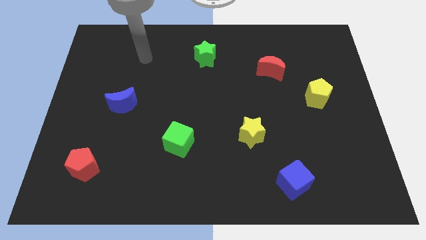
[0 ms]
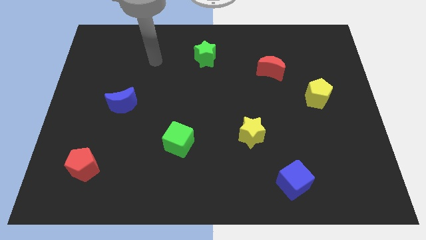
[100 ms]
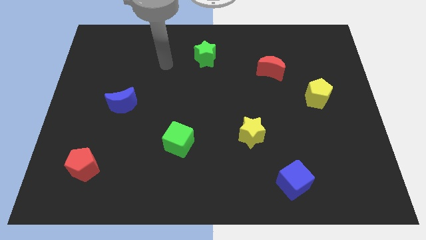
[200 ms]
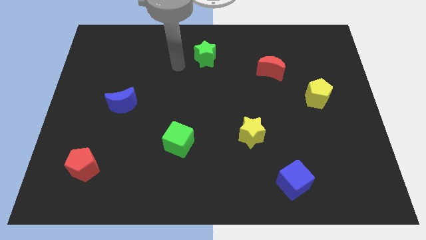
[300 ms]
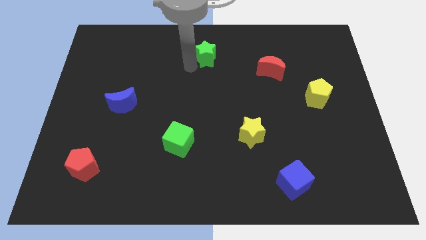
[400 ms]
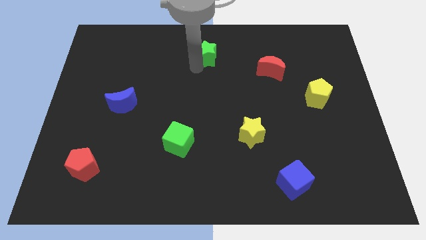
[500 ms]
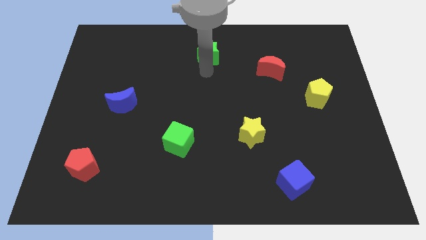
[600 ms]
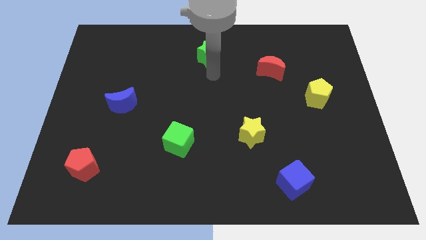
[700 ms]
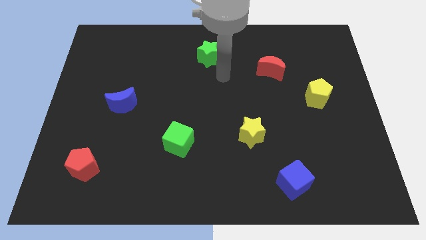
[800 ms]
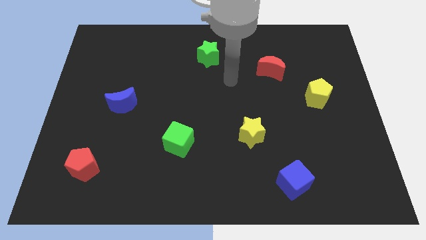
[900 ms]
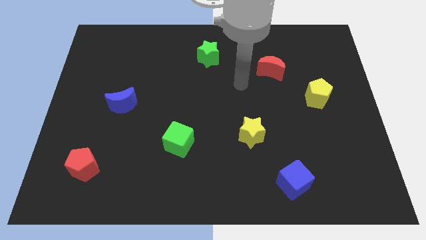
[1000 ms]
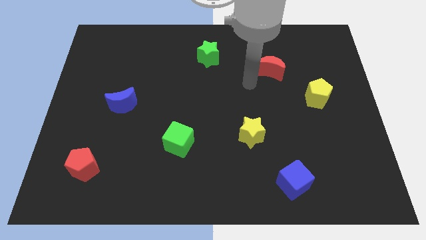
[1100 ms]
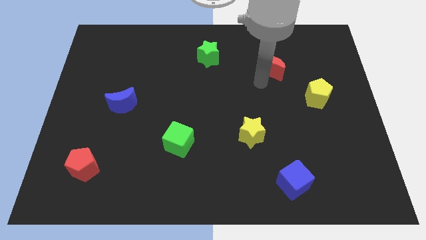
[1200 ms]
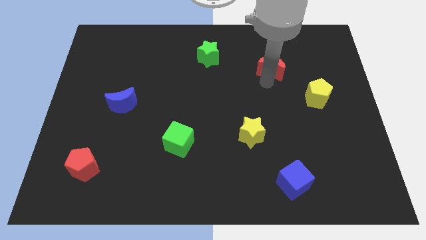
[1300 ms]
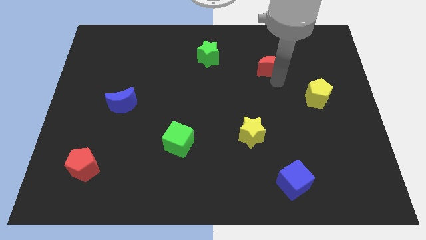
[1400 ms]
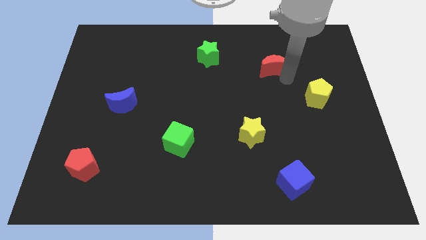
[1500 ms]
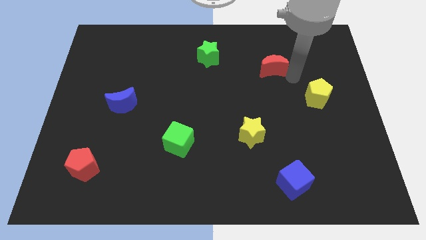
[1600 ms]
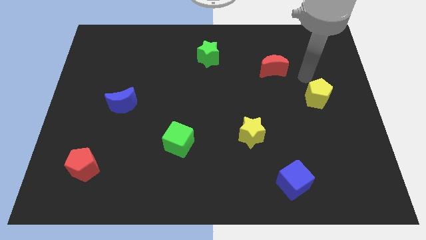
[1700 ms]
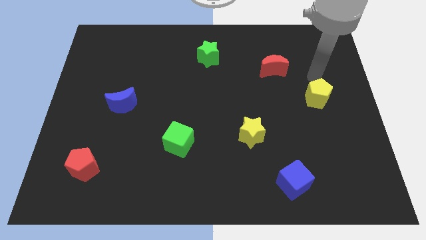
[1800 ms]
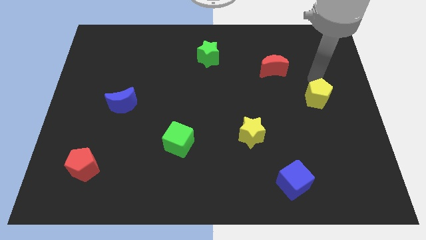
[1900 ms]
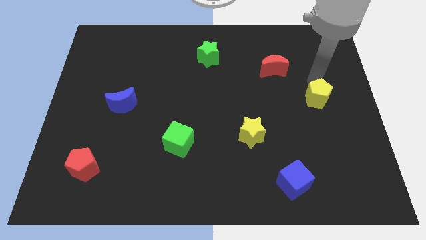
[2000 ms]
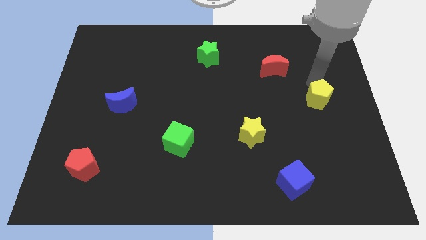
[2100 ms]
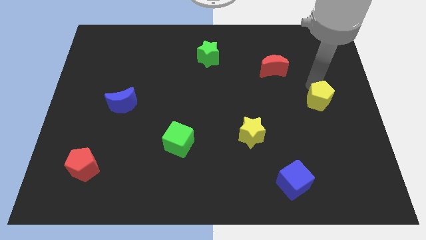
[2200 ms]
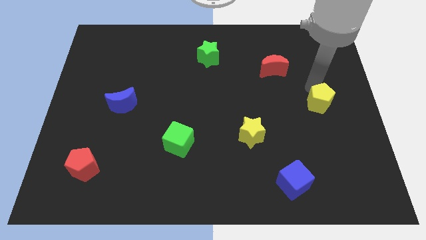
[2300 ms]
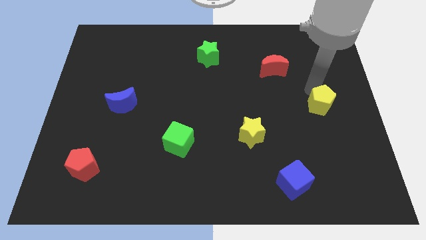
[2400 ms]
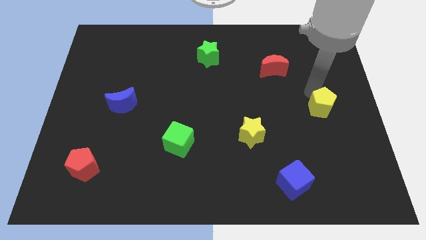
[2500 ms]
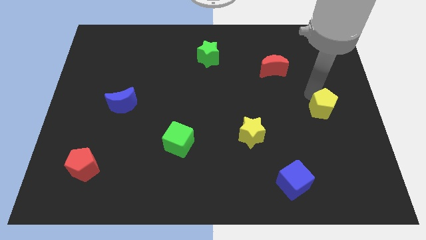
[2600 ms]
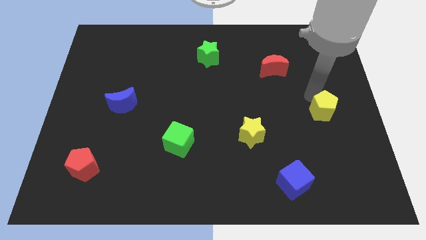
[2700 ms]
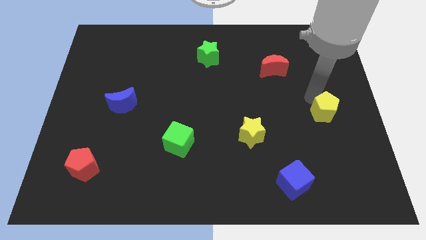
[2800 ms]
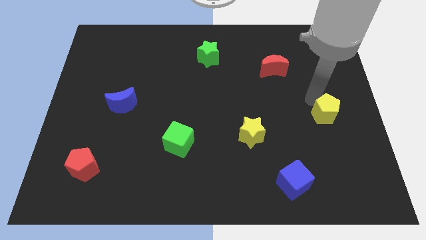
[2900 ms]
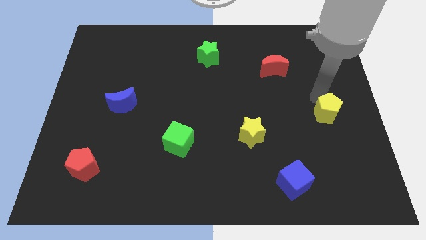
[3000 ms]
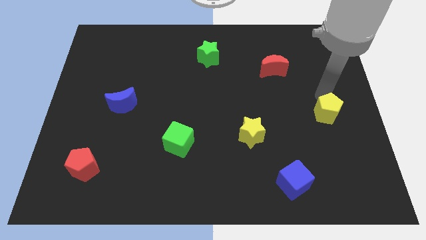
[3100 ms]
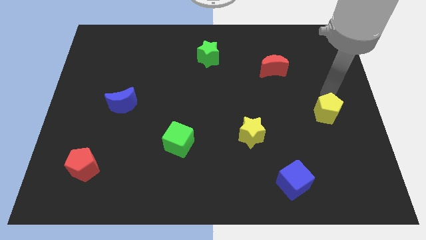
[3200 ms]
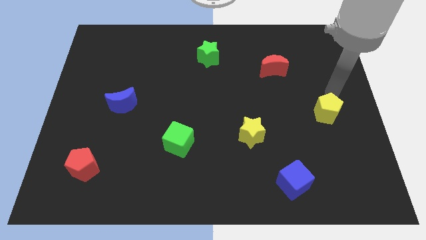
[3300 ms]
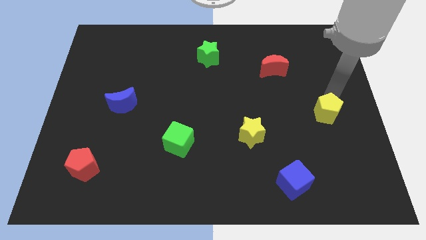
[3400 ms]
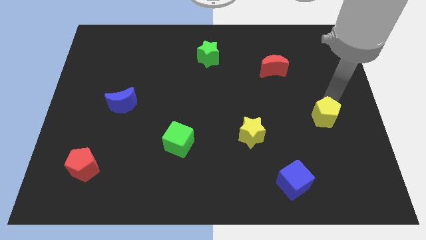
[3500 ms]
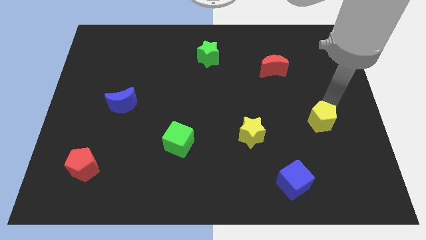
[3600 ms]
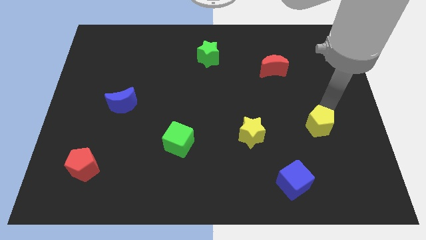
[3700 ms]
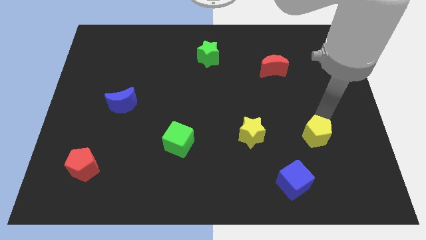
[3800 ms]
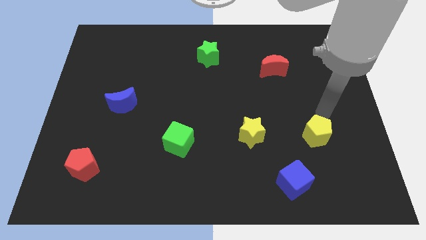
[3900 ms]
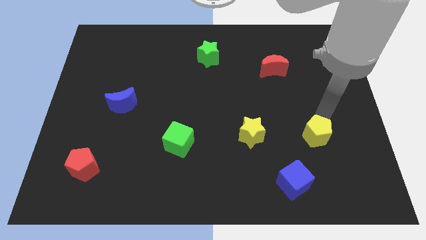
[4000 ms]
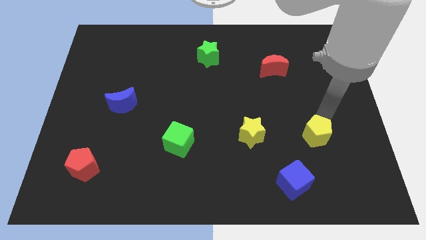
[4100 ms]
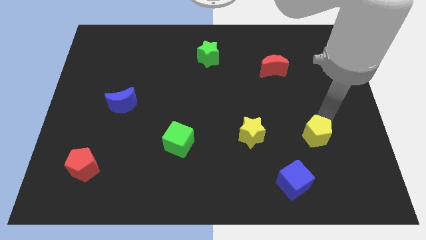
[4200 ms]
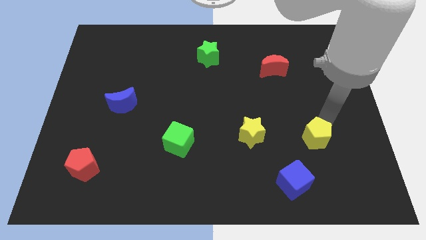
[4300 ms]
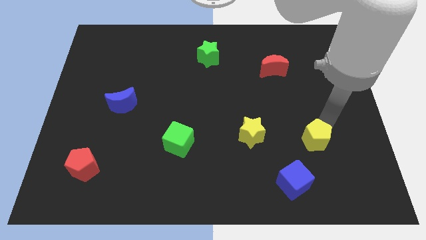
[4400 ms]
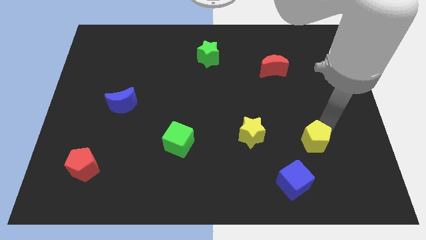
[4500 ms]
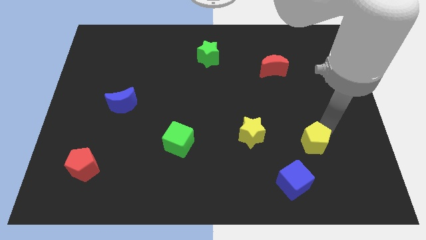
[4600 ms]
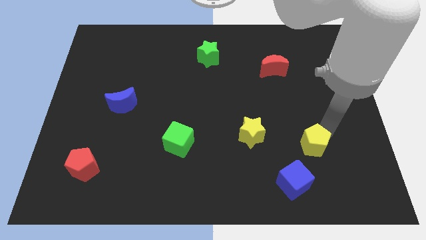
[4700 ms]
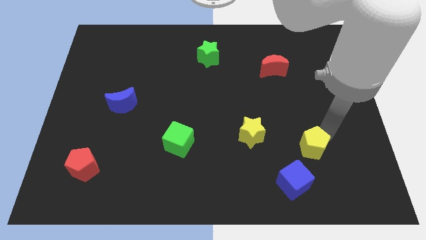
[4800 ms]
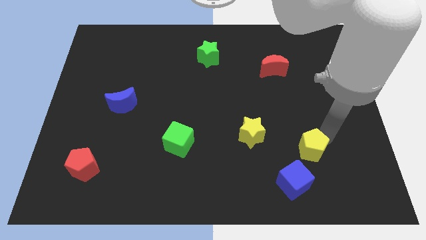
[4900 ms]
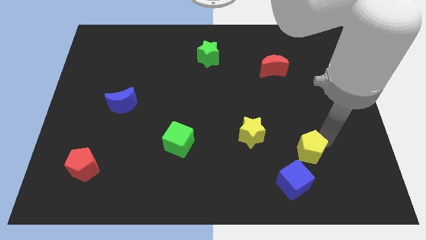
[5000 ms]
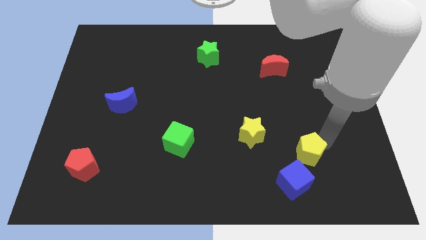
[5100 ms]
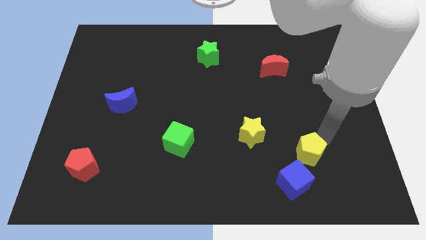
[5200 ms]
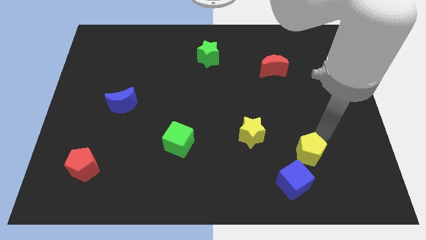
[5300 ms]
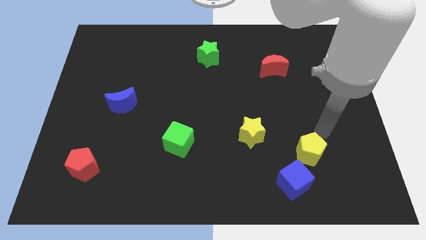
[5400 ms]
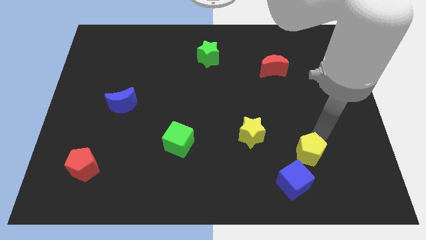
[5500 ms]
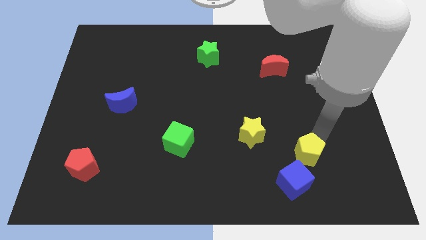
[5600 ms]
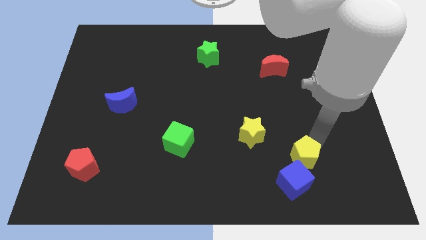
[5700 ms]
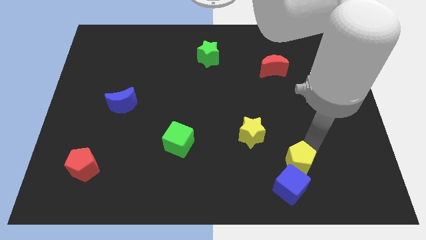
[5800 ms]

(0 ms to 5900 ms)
push the yellow pentagon next to the blue cube

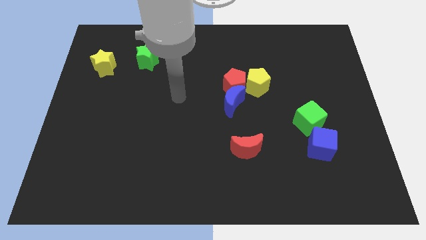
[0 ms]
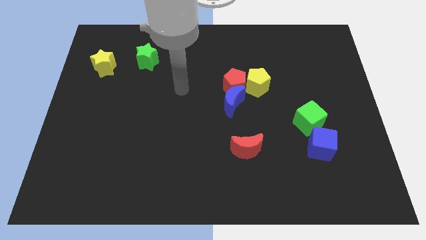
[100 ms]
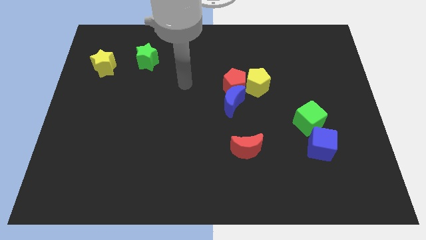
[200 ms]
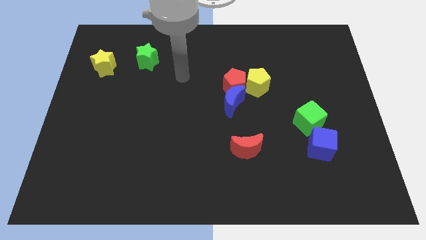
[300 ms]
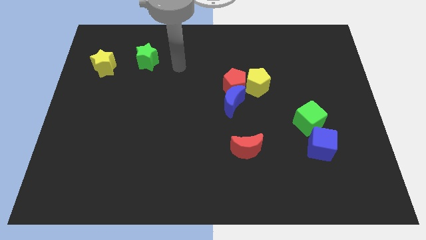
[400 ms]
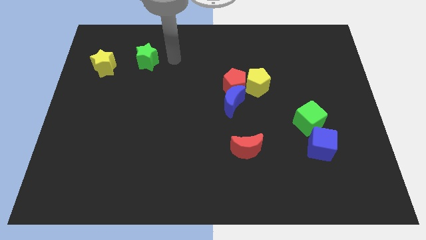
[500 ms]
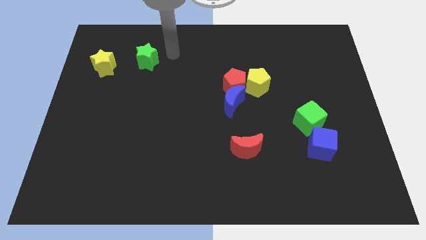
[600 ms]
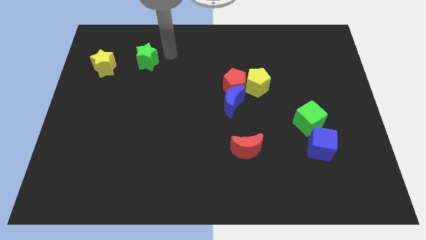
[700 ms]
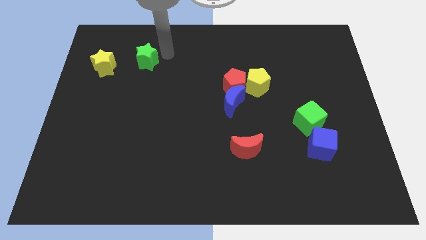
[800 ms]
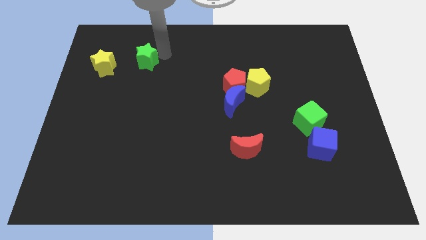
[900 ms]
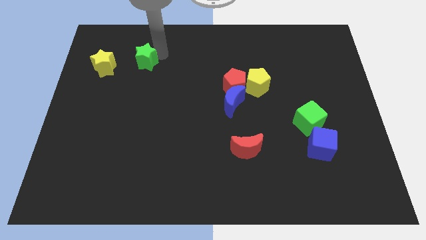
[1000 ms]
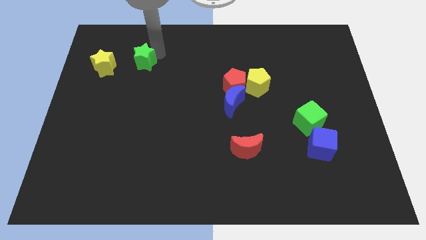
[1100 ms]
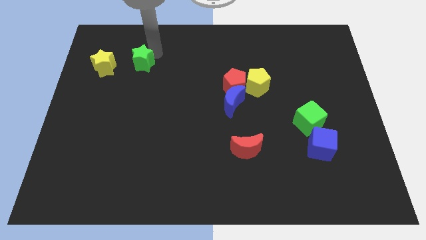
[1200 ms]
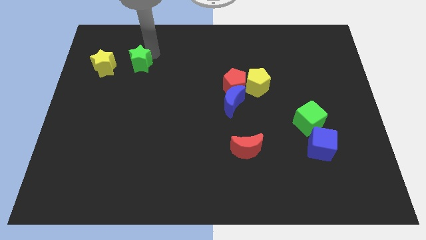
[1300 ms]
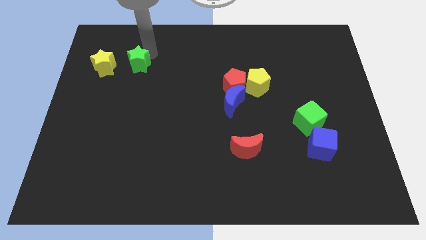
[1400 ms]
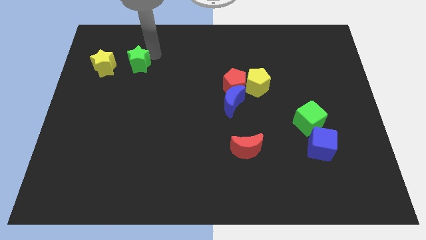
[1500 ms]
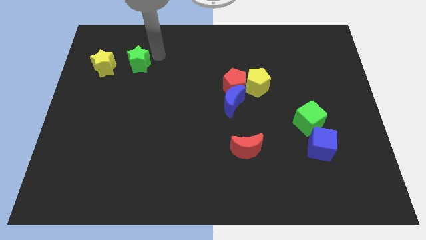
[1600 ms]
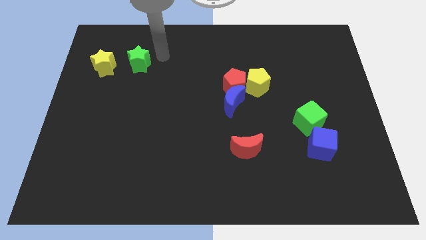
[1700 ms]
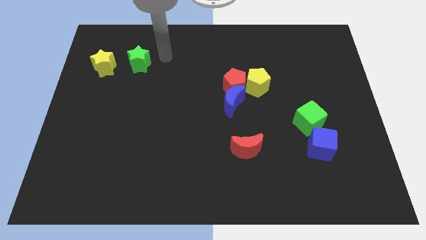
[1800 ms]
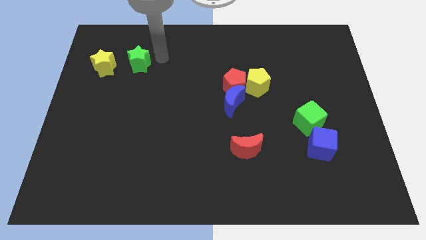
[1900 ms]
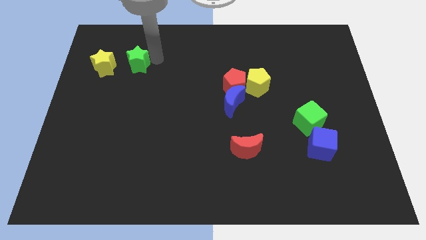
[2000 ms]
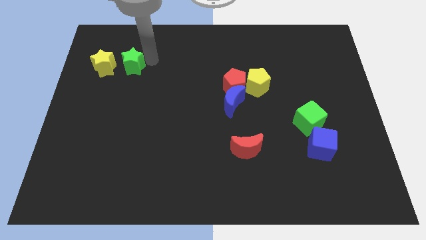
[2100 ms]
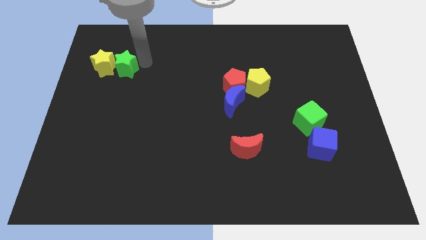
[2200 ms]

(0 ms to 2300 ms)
move the green star to the yellow star
